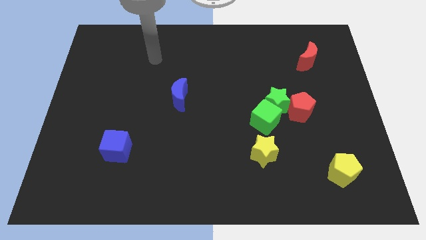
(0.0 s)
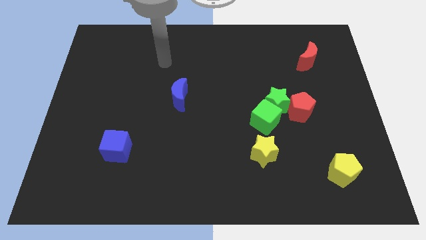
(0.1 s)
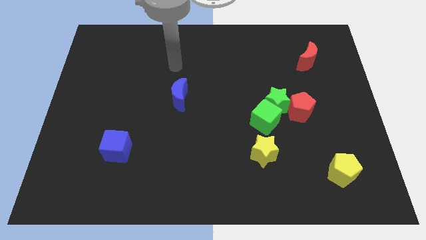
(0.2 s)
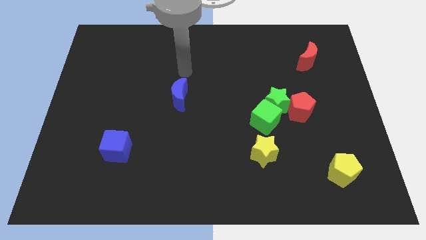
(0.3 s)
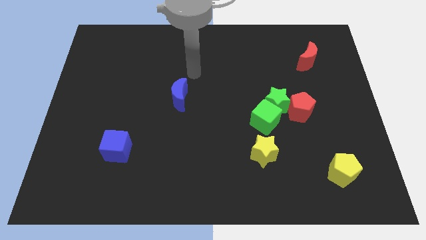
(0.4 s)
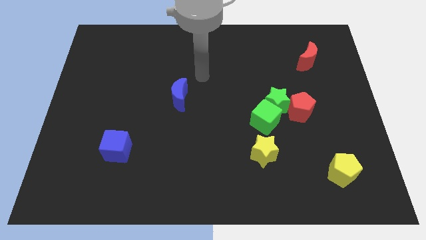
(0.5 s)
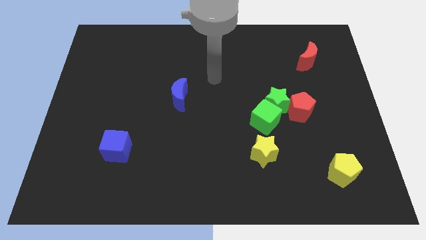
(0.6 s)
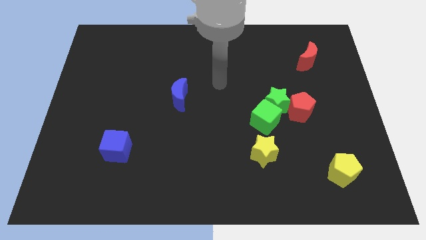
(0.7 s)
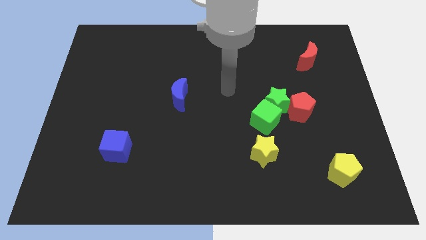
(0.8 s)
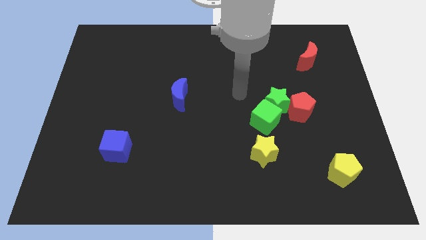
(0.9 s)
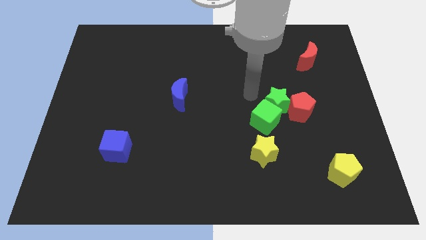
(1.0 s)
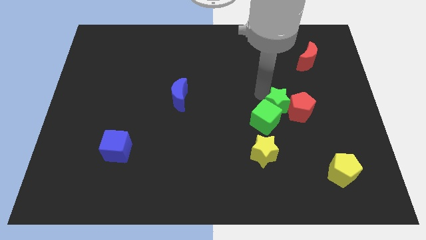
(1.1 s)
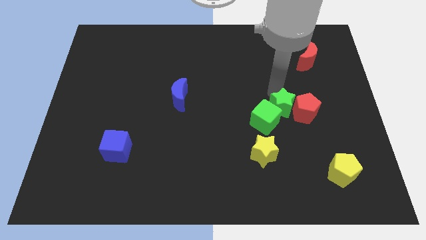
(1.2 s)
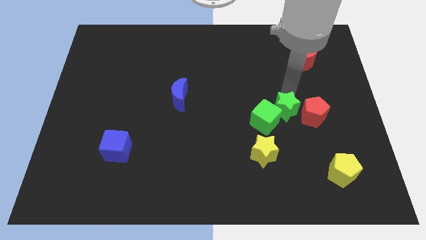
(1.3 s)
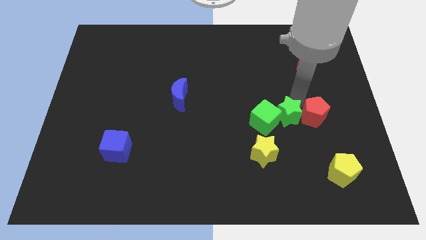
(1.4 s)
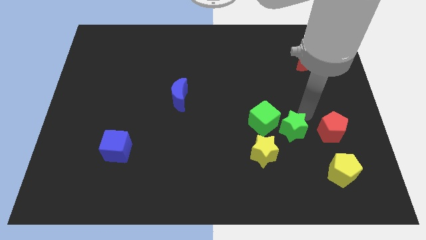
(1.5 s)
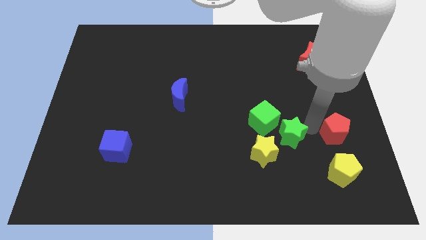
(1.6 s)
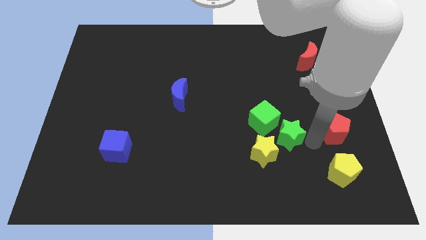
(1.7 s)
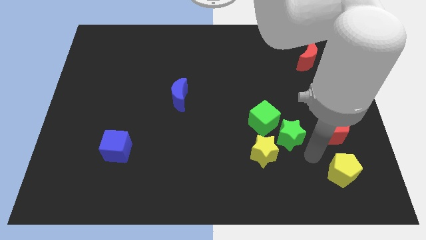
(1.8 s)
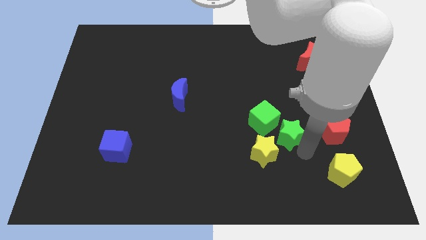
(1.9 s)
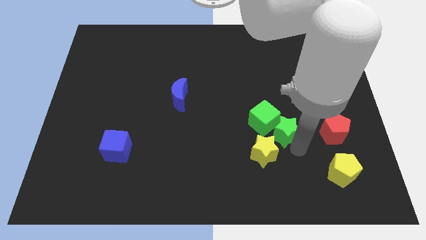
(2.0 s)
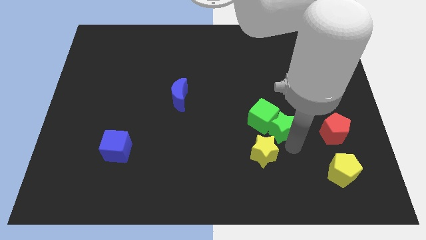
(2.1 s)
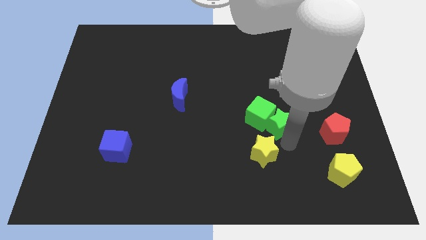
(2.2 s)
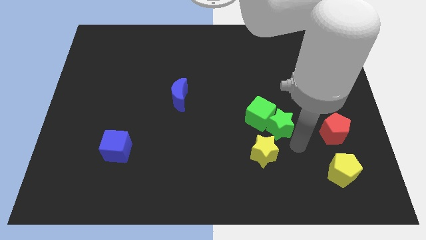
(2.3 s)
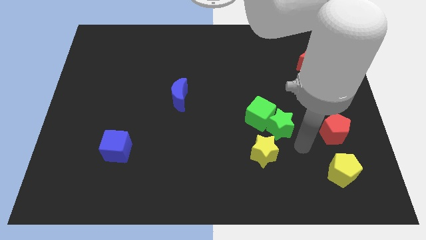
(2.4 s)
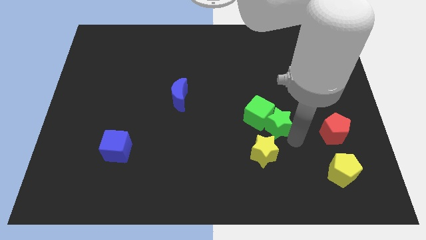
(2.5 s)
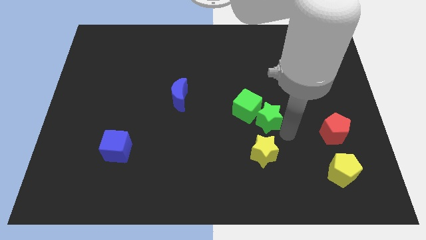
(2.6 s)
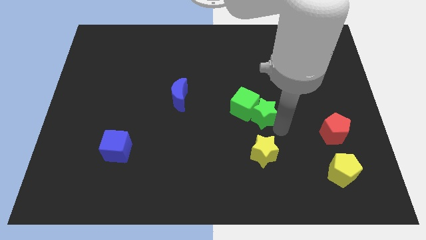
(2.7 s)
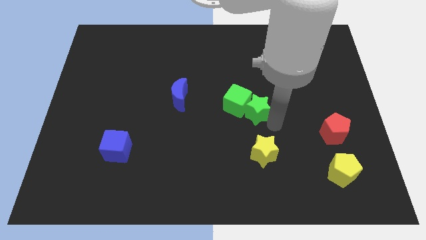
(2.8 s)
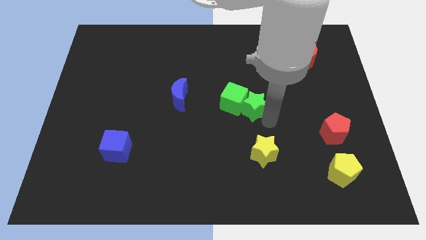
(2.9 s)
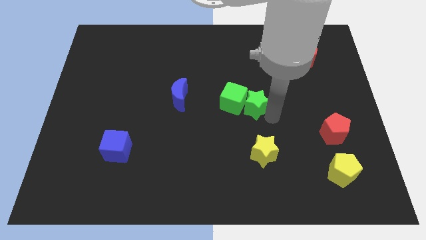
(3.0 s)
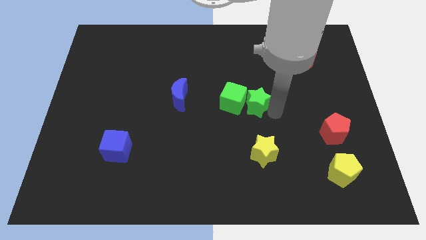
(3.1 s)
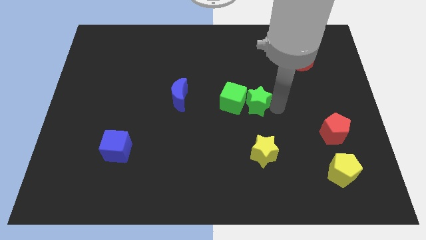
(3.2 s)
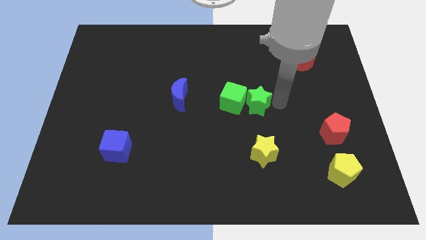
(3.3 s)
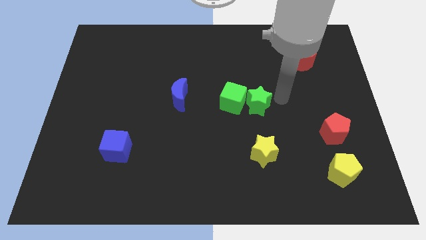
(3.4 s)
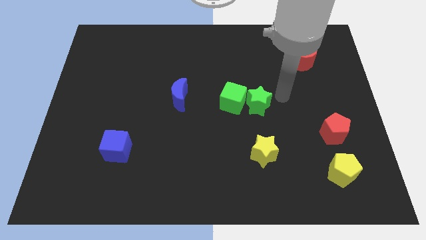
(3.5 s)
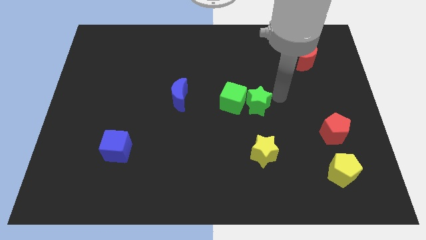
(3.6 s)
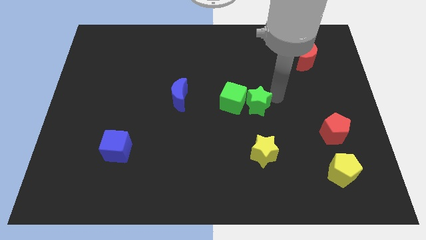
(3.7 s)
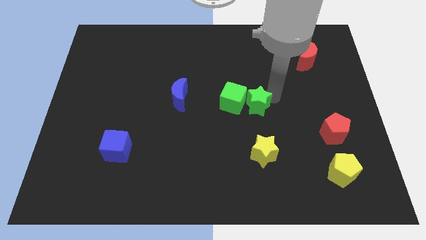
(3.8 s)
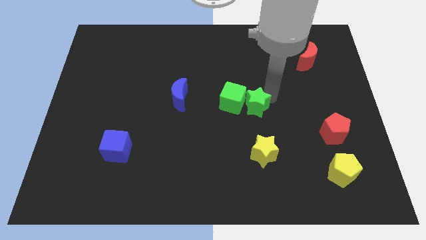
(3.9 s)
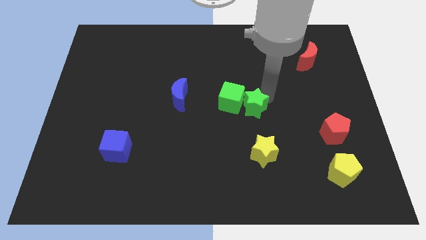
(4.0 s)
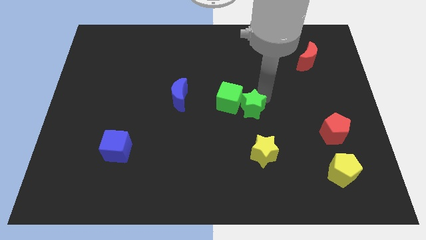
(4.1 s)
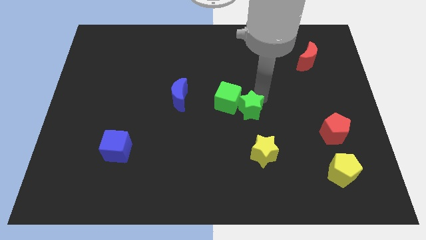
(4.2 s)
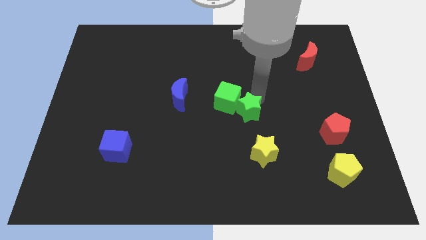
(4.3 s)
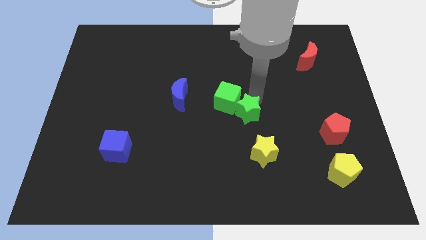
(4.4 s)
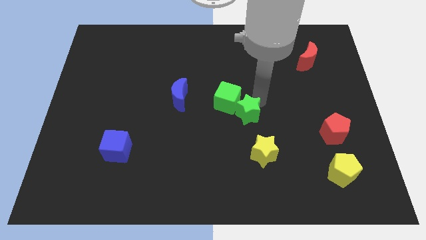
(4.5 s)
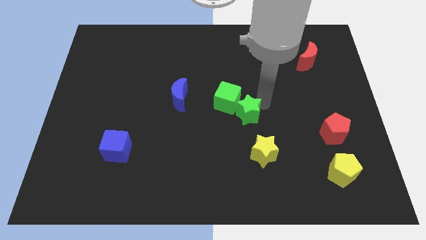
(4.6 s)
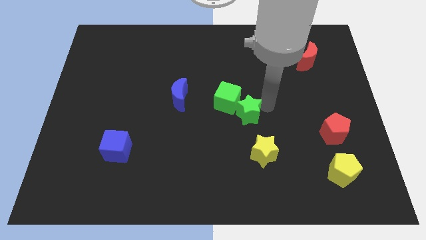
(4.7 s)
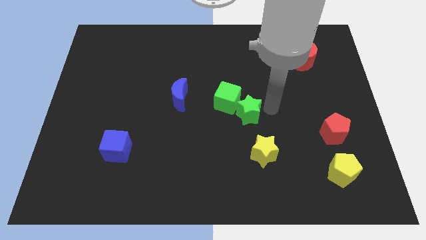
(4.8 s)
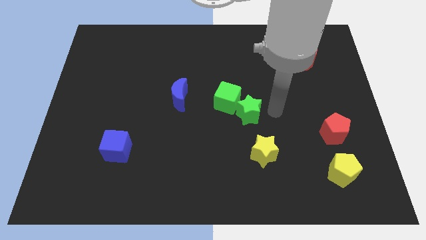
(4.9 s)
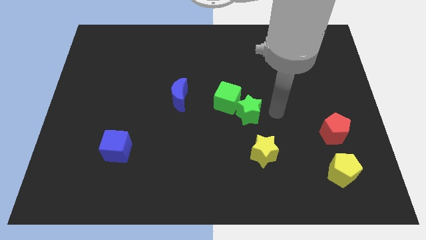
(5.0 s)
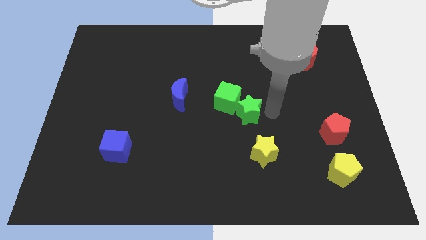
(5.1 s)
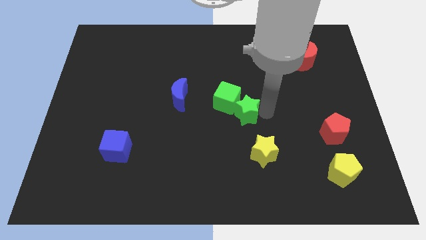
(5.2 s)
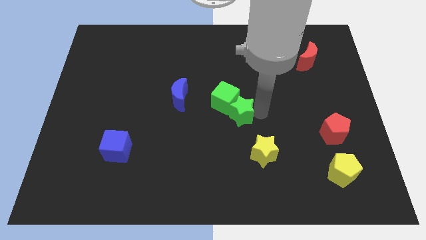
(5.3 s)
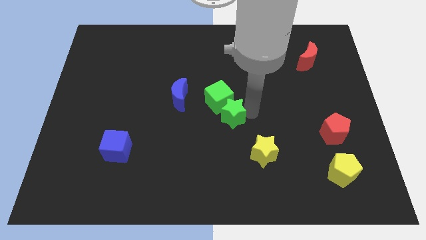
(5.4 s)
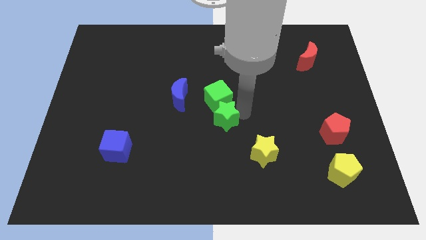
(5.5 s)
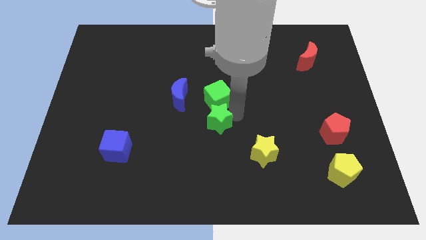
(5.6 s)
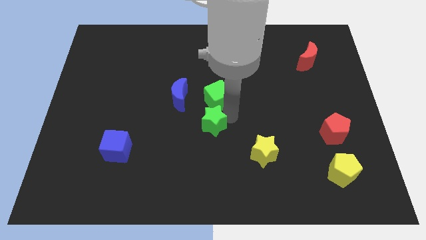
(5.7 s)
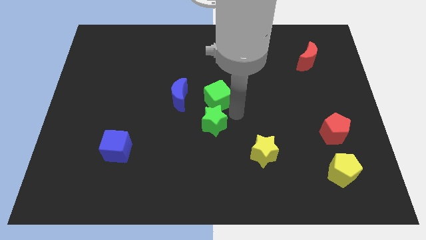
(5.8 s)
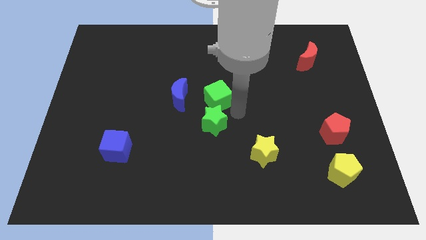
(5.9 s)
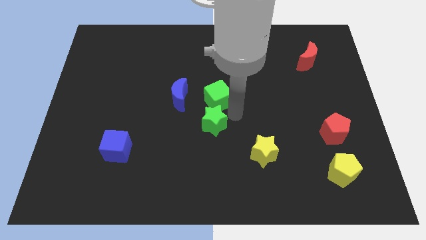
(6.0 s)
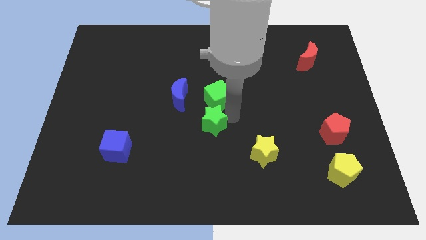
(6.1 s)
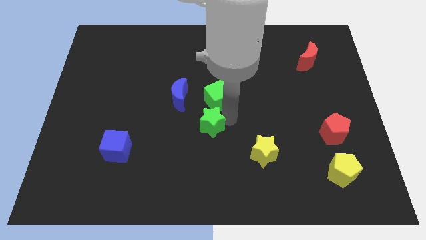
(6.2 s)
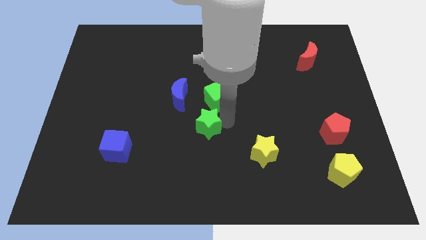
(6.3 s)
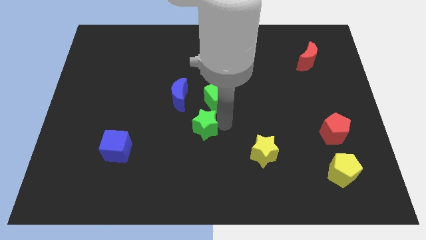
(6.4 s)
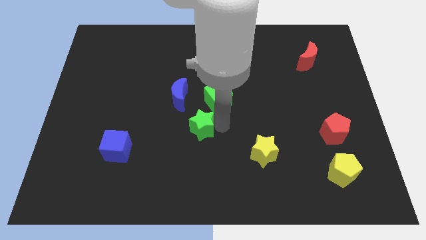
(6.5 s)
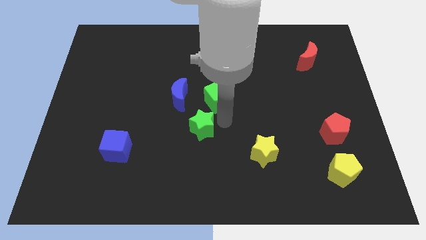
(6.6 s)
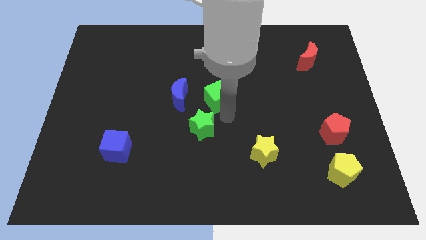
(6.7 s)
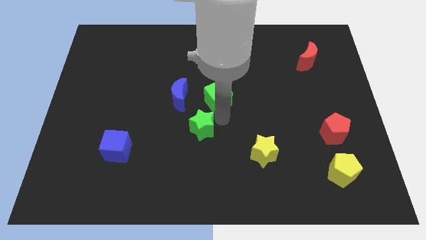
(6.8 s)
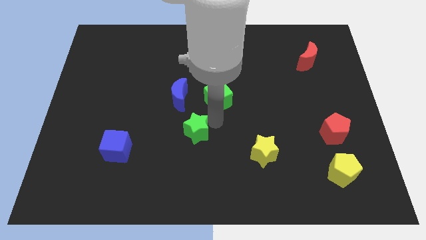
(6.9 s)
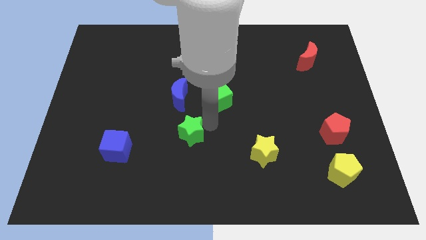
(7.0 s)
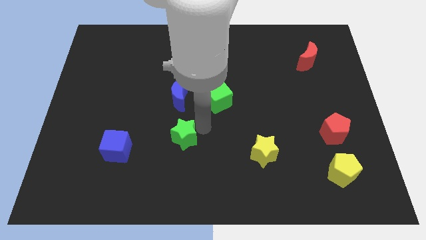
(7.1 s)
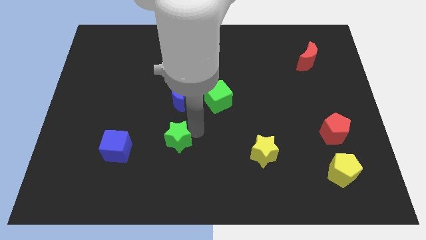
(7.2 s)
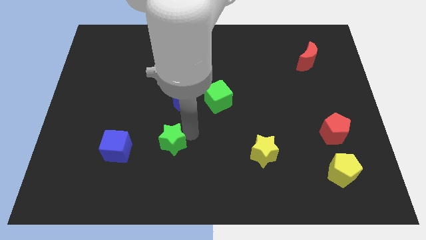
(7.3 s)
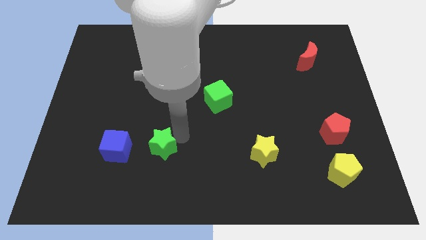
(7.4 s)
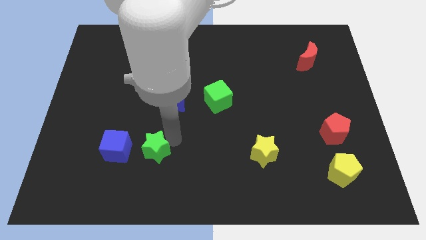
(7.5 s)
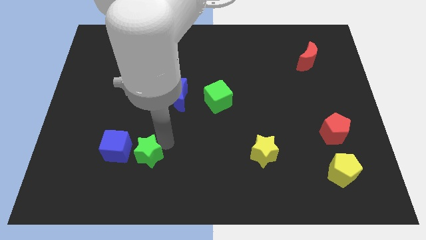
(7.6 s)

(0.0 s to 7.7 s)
slide the green star diagonally down and to the right of the blue cube

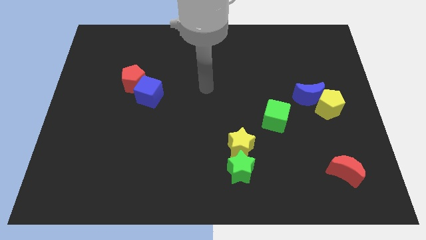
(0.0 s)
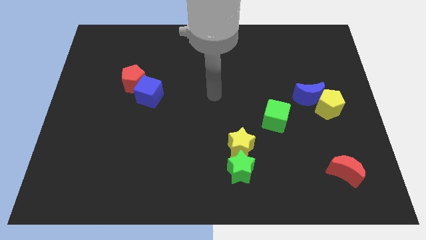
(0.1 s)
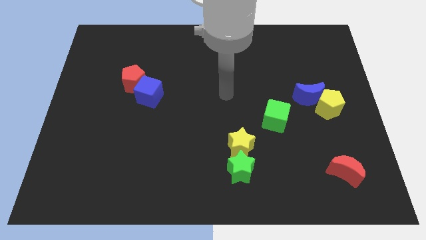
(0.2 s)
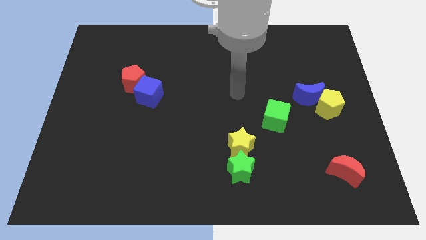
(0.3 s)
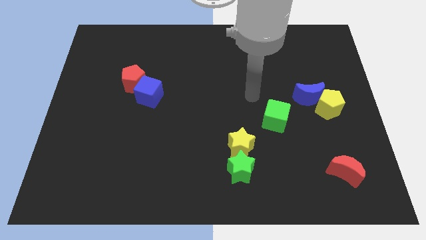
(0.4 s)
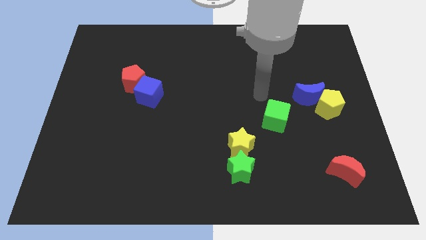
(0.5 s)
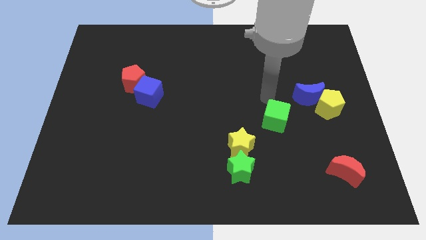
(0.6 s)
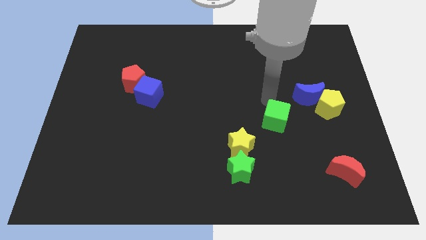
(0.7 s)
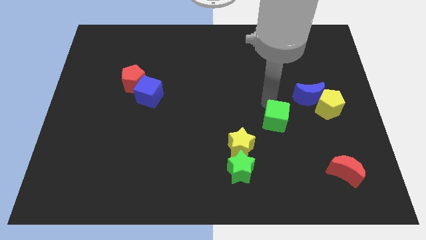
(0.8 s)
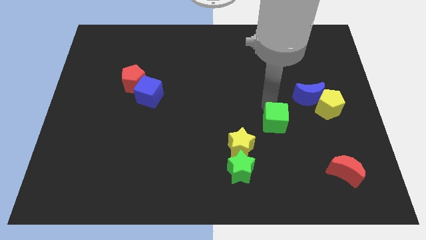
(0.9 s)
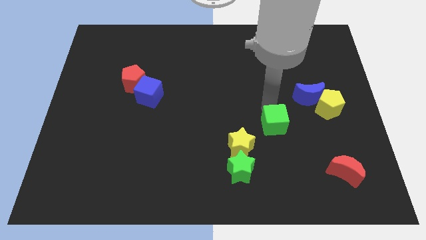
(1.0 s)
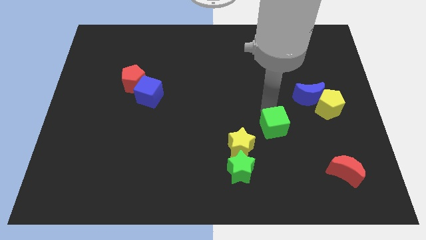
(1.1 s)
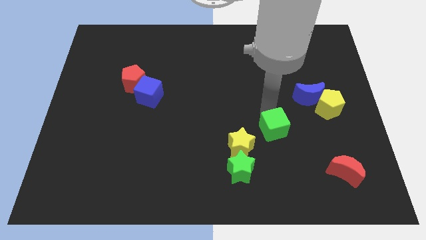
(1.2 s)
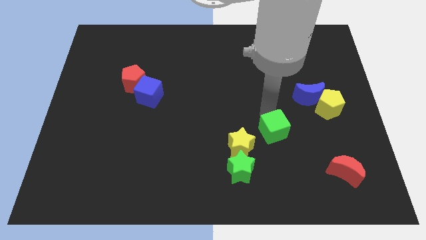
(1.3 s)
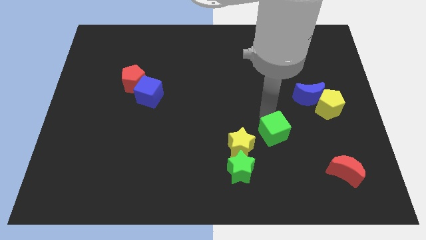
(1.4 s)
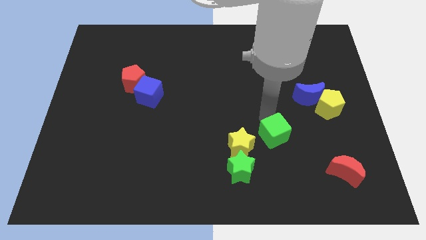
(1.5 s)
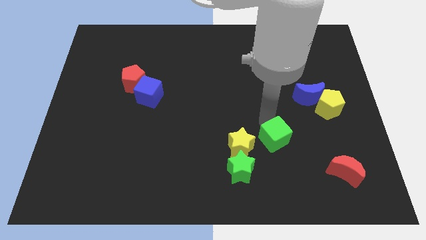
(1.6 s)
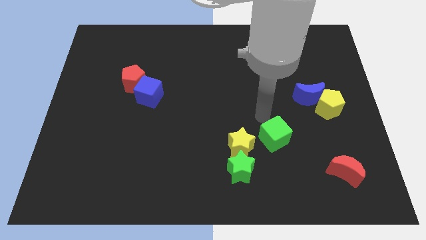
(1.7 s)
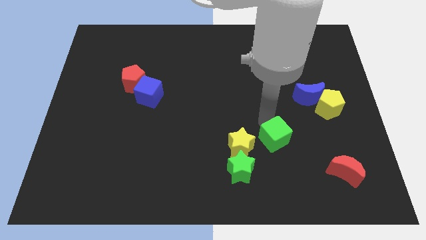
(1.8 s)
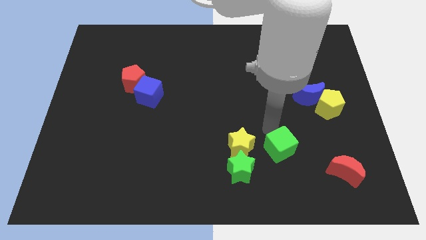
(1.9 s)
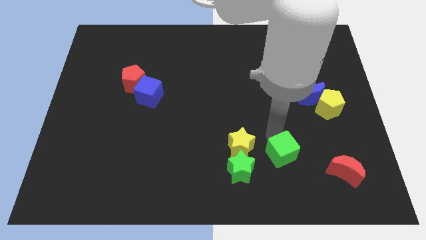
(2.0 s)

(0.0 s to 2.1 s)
put the green cube just left of the red moon
